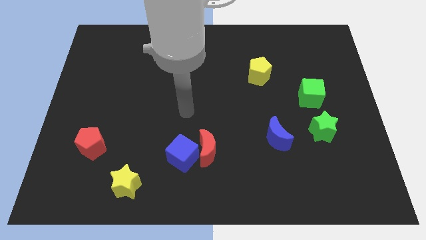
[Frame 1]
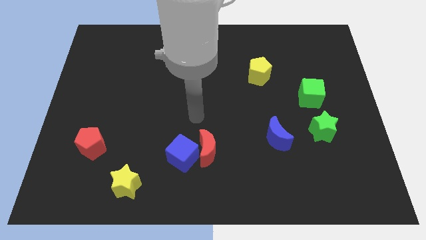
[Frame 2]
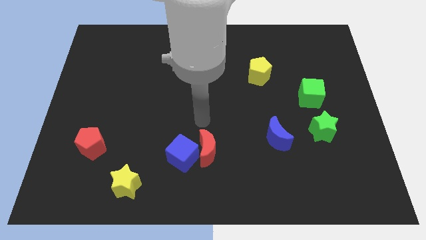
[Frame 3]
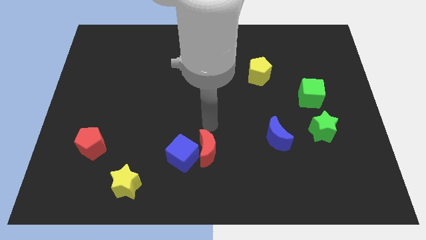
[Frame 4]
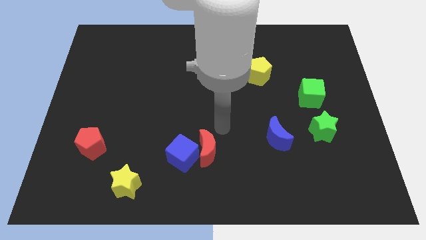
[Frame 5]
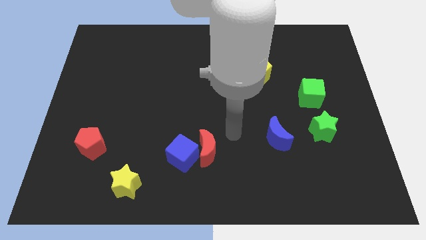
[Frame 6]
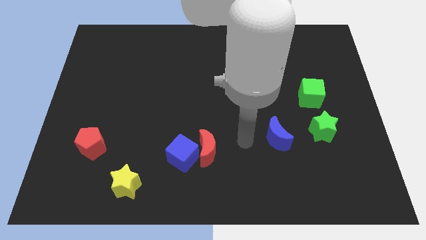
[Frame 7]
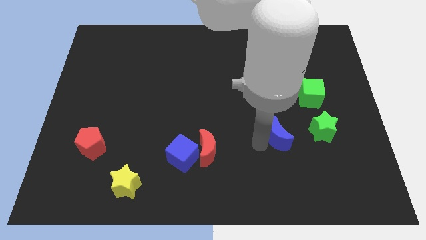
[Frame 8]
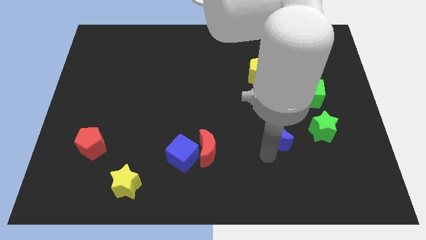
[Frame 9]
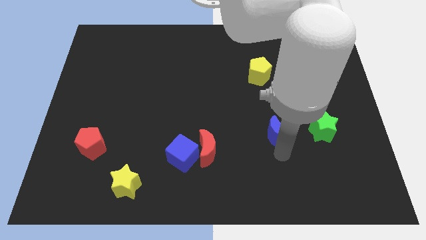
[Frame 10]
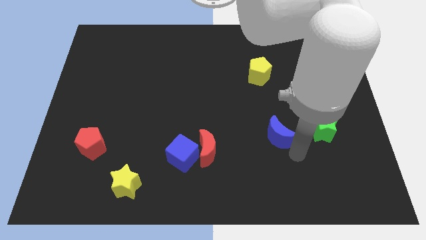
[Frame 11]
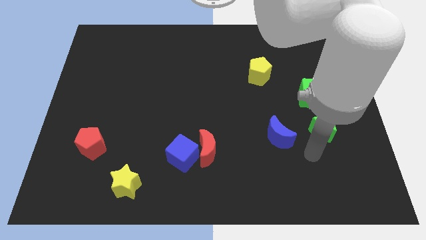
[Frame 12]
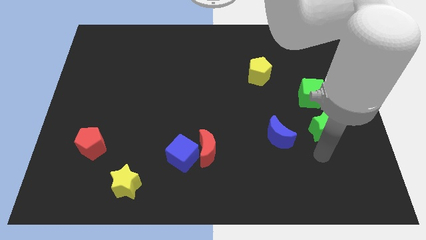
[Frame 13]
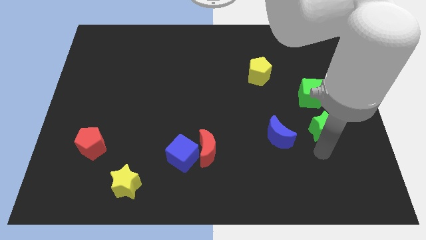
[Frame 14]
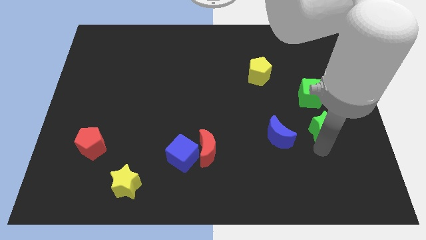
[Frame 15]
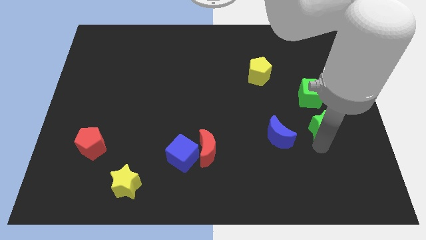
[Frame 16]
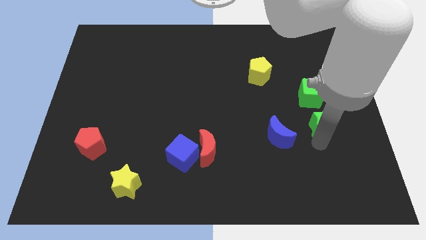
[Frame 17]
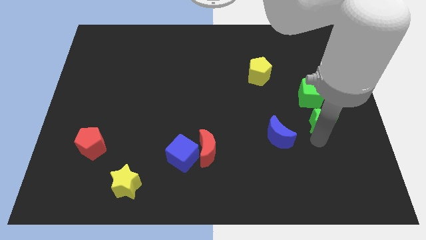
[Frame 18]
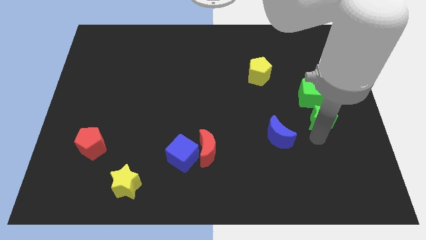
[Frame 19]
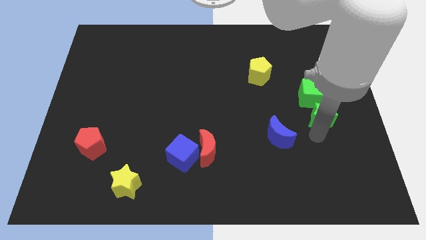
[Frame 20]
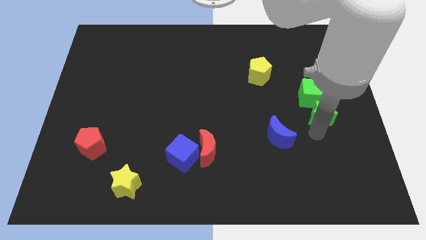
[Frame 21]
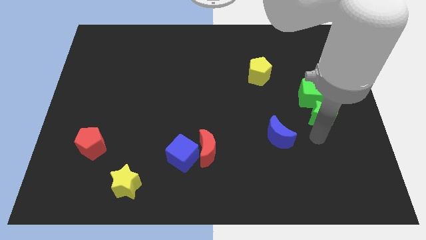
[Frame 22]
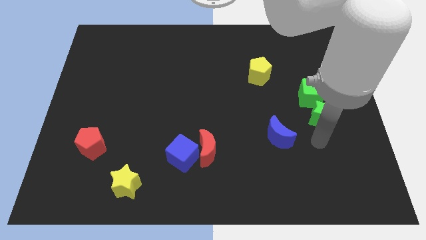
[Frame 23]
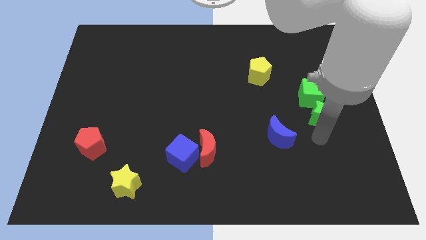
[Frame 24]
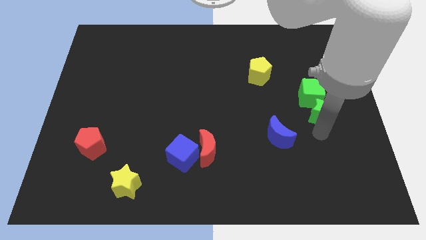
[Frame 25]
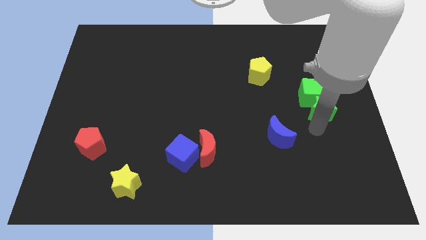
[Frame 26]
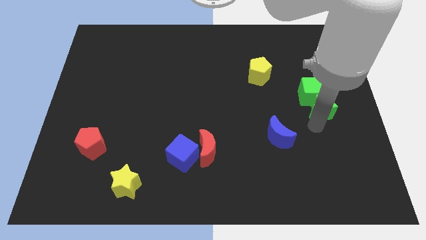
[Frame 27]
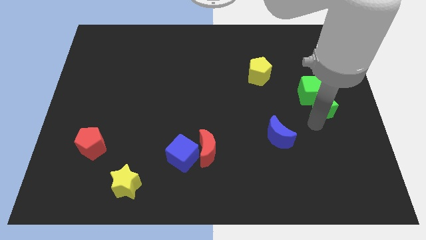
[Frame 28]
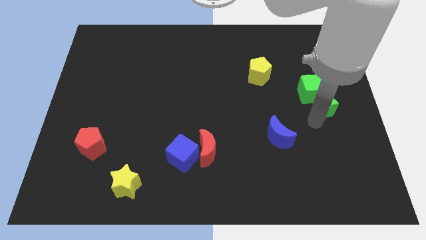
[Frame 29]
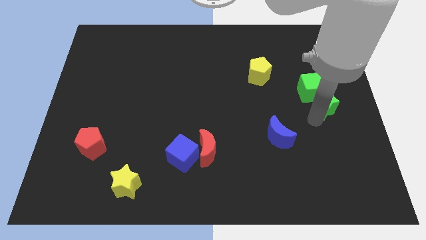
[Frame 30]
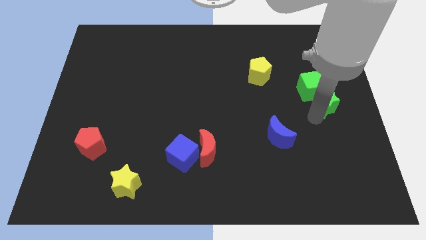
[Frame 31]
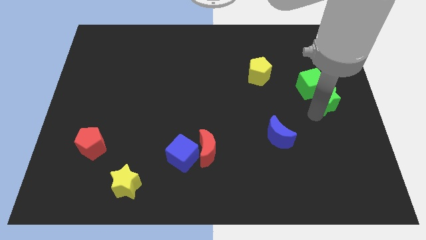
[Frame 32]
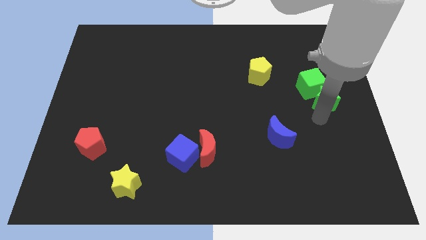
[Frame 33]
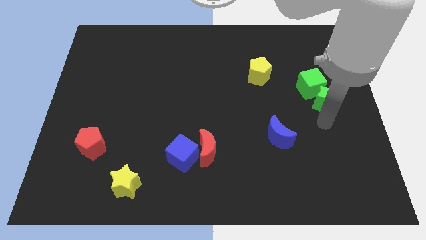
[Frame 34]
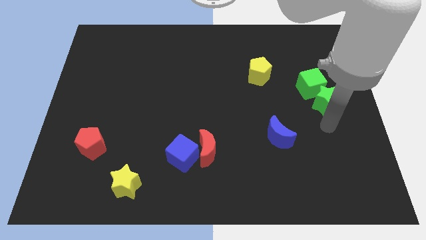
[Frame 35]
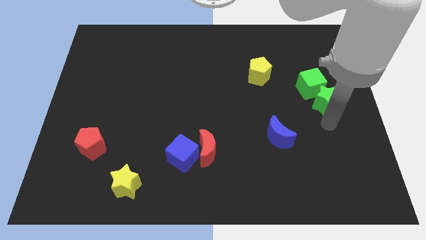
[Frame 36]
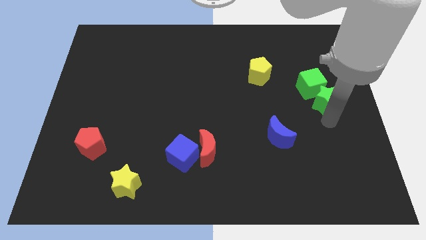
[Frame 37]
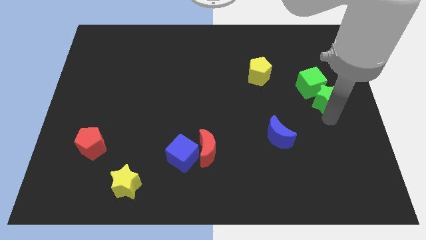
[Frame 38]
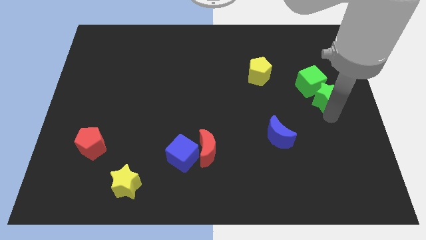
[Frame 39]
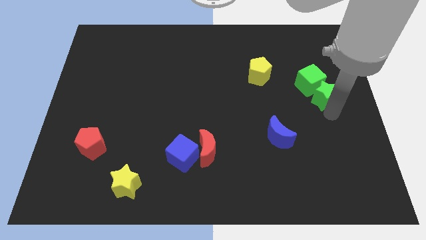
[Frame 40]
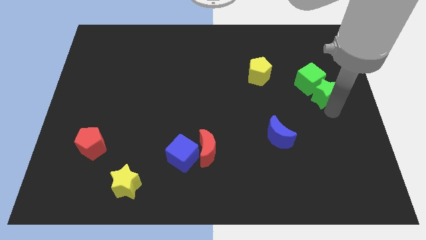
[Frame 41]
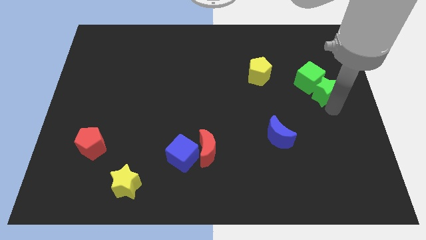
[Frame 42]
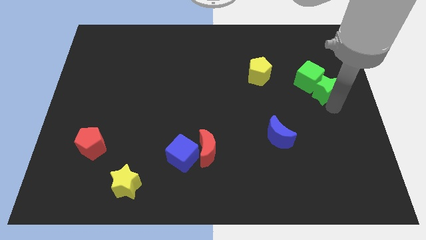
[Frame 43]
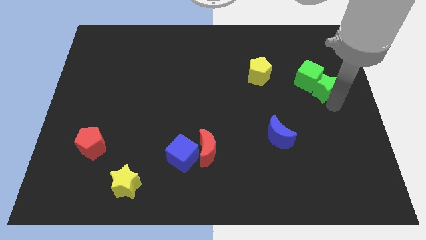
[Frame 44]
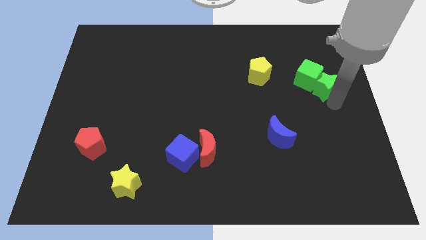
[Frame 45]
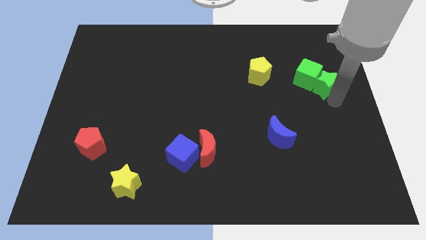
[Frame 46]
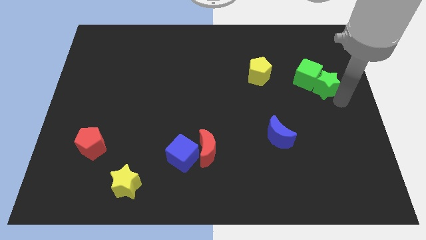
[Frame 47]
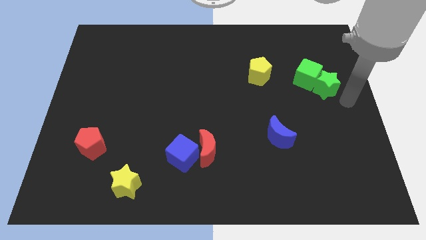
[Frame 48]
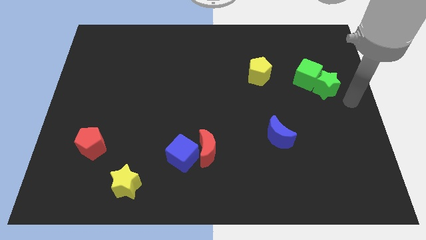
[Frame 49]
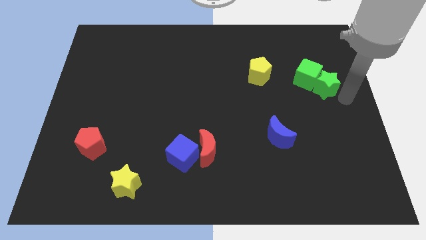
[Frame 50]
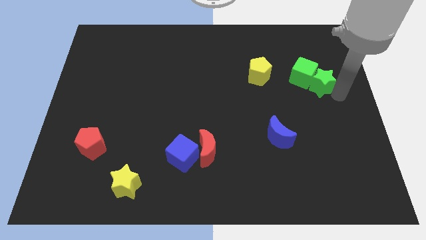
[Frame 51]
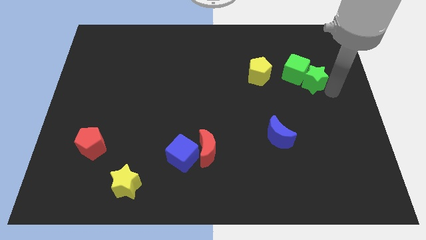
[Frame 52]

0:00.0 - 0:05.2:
slide the green star just right of the yellow pentagon

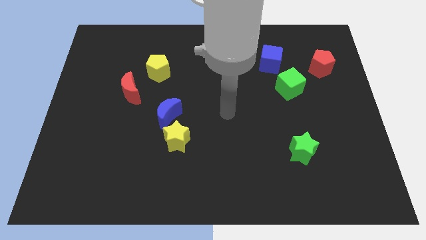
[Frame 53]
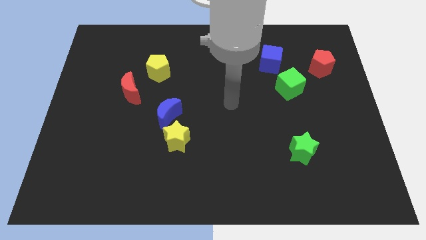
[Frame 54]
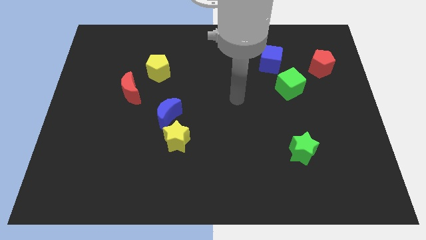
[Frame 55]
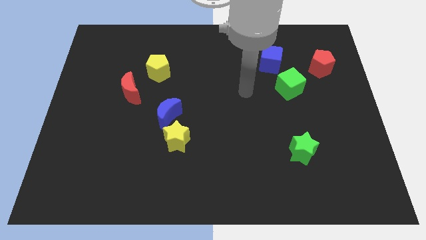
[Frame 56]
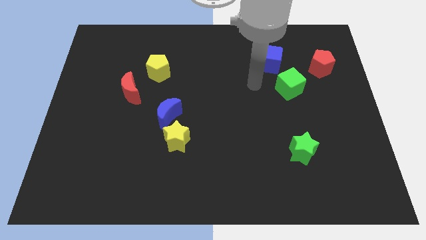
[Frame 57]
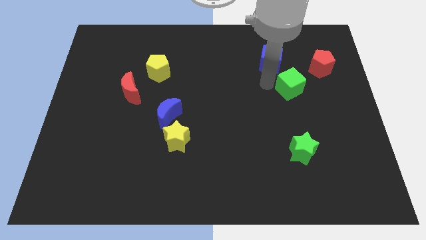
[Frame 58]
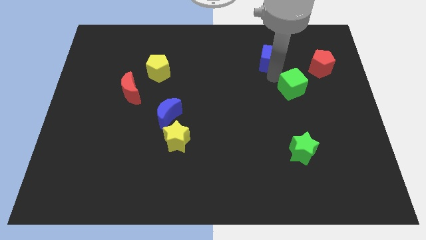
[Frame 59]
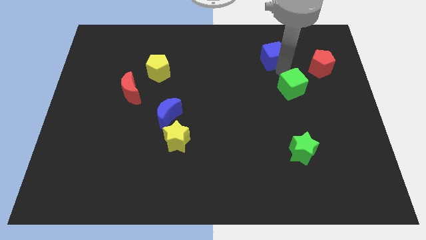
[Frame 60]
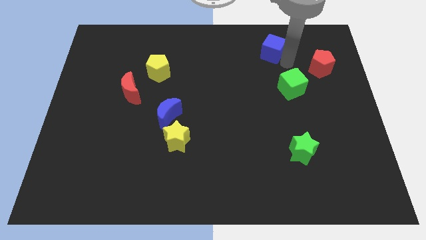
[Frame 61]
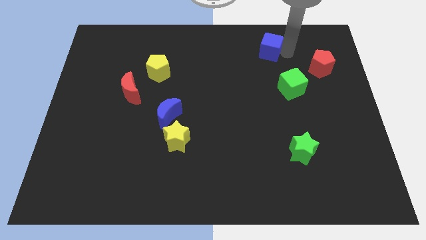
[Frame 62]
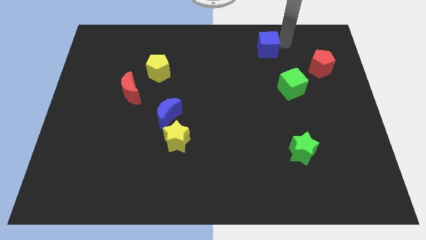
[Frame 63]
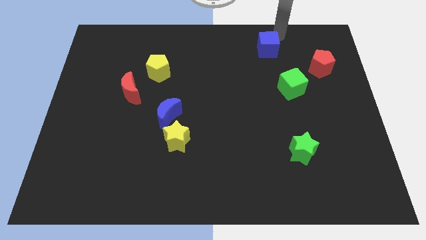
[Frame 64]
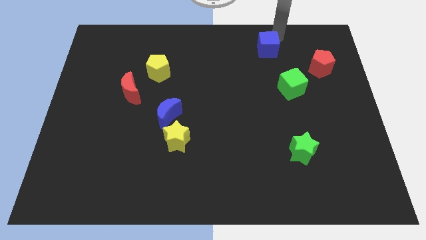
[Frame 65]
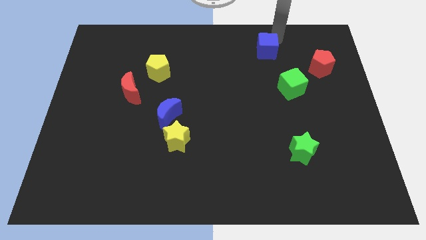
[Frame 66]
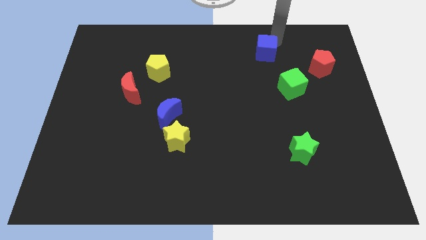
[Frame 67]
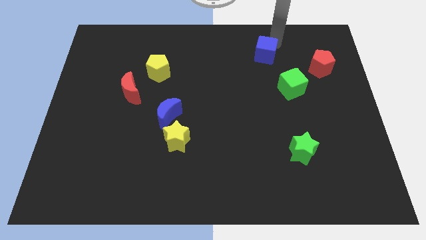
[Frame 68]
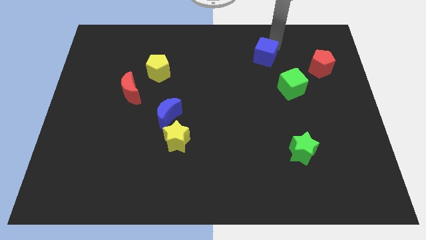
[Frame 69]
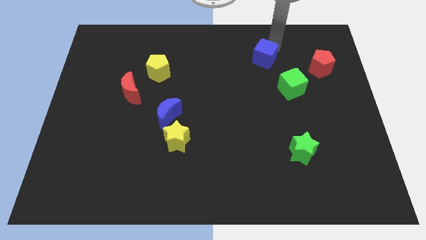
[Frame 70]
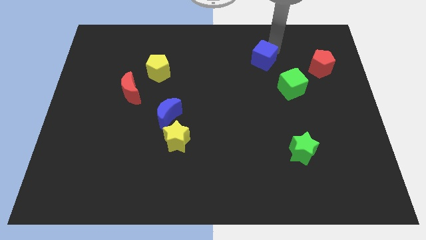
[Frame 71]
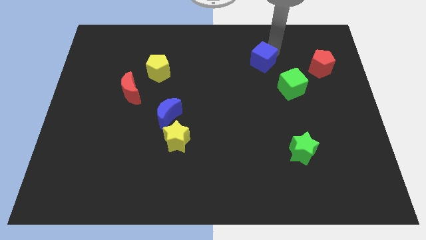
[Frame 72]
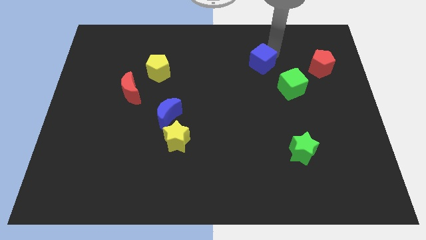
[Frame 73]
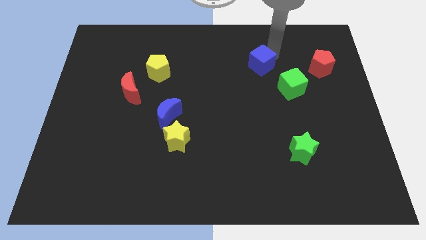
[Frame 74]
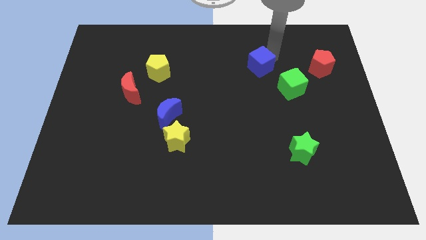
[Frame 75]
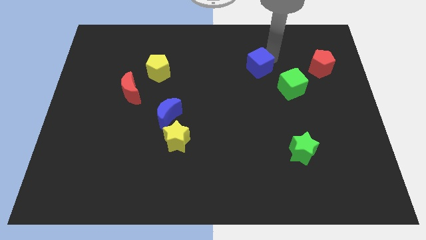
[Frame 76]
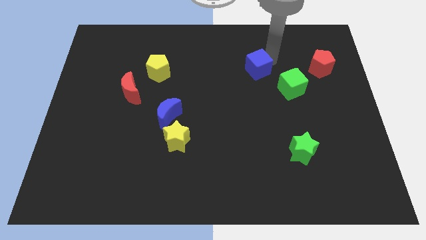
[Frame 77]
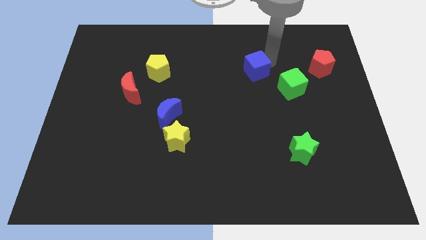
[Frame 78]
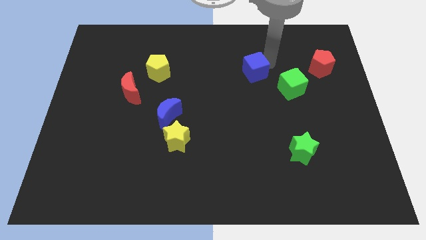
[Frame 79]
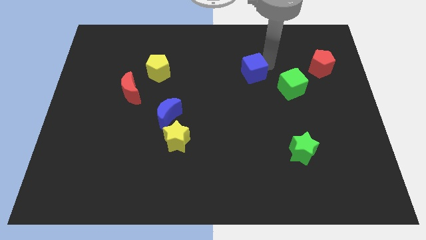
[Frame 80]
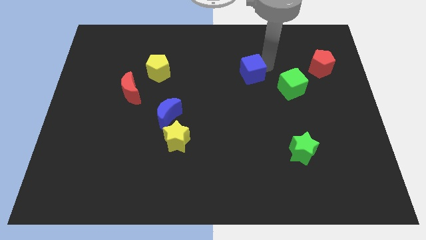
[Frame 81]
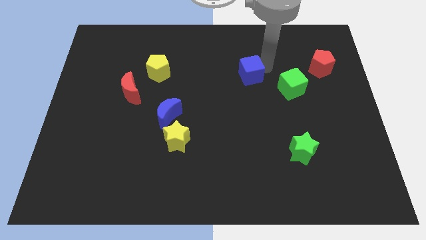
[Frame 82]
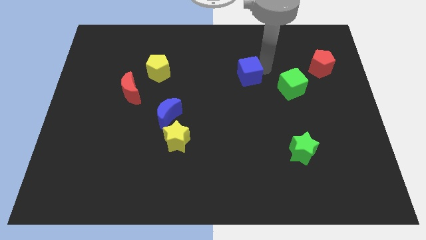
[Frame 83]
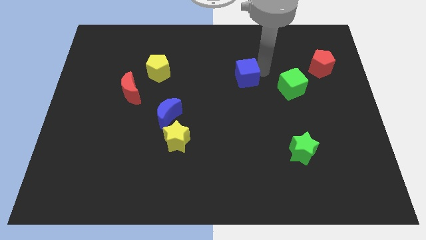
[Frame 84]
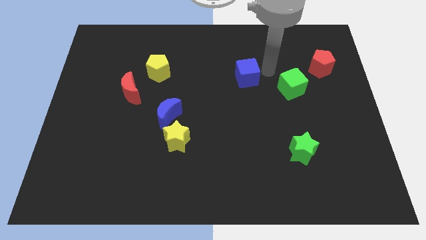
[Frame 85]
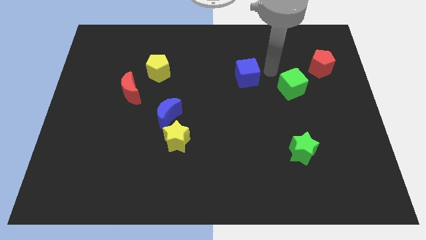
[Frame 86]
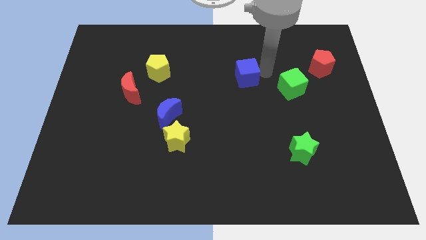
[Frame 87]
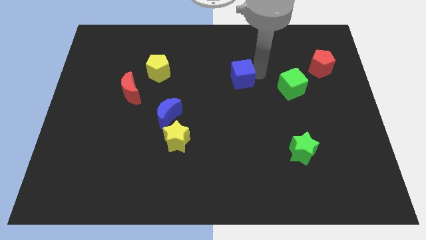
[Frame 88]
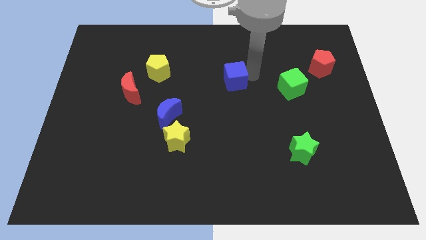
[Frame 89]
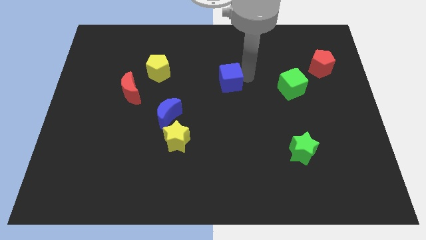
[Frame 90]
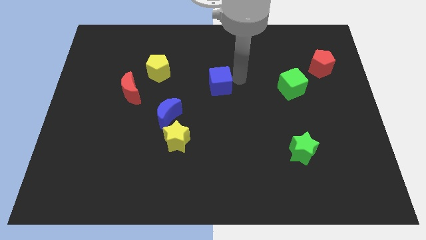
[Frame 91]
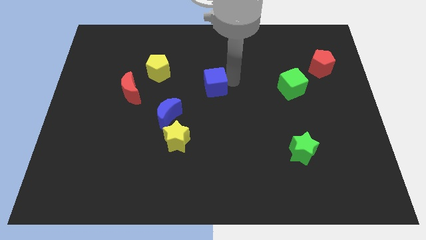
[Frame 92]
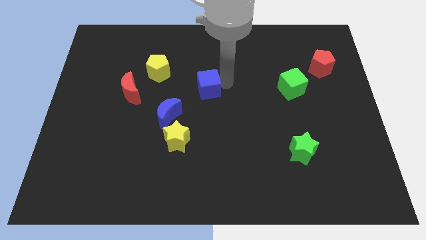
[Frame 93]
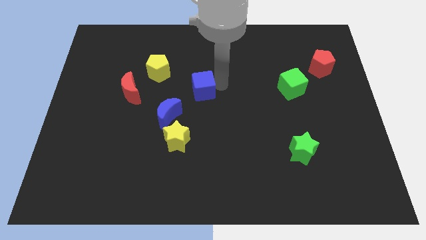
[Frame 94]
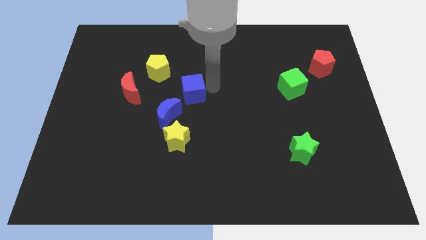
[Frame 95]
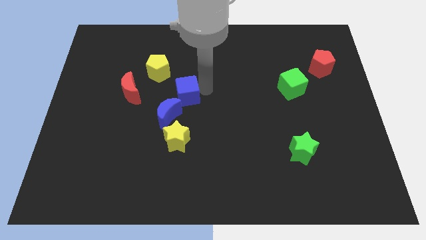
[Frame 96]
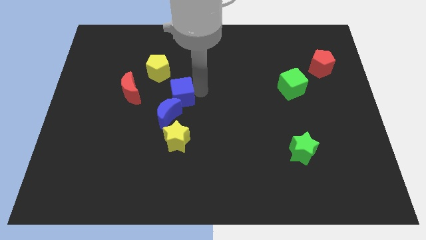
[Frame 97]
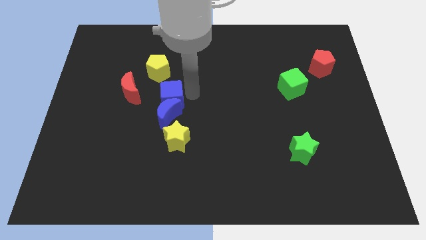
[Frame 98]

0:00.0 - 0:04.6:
put the blue cube diagonally up and to the left of the blue moon
